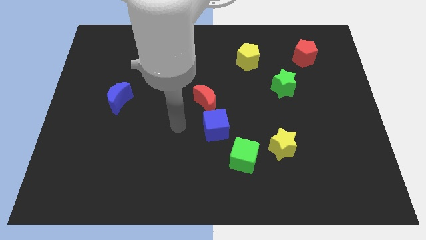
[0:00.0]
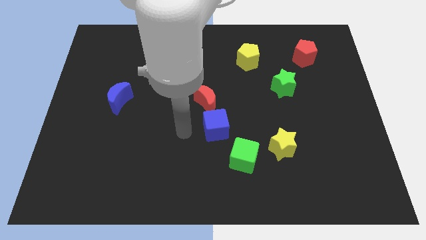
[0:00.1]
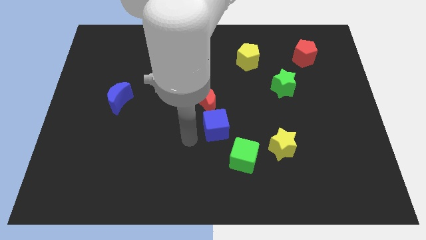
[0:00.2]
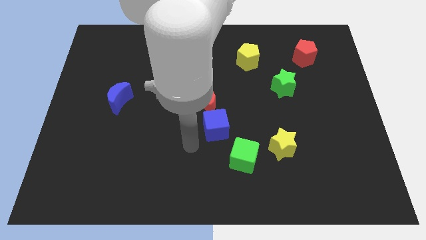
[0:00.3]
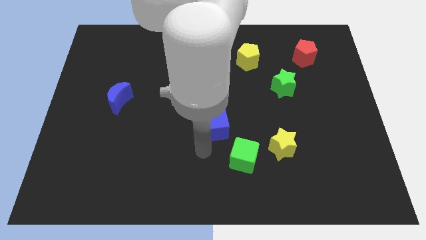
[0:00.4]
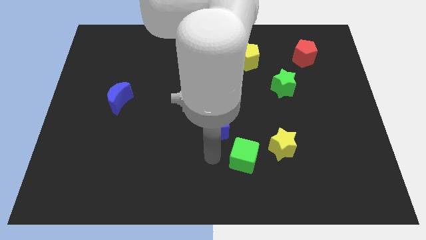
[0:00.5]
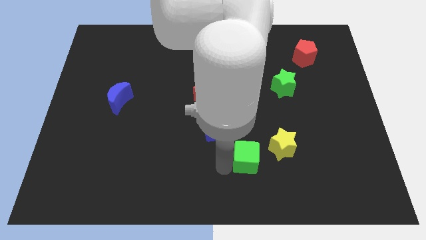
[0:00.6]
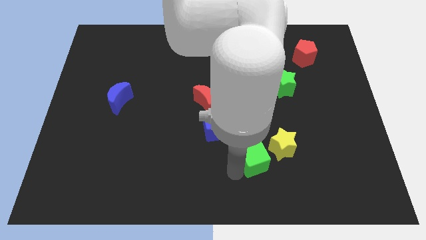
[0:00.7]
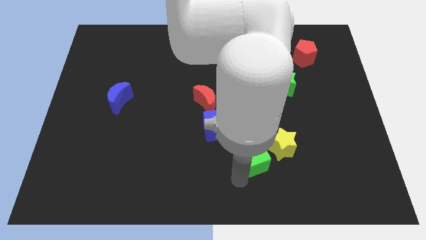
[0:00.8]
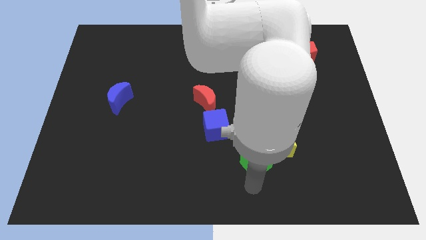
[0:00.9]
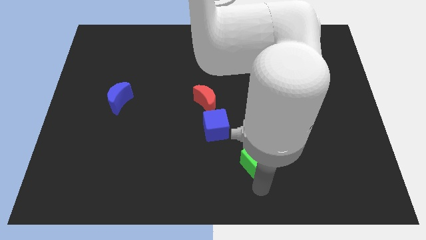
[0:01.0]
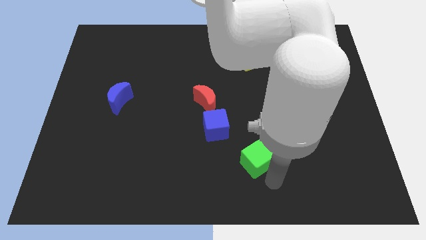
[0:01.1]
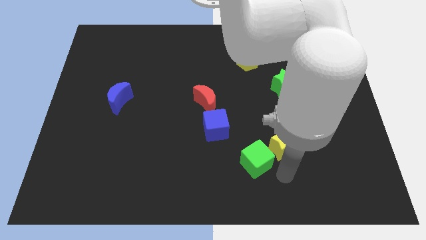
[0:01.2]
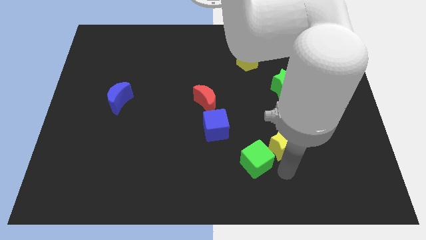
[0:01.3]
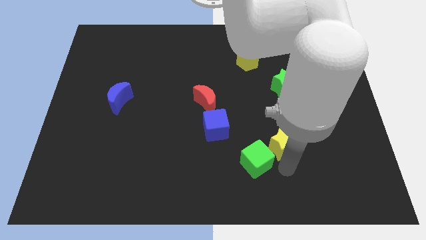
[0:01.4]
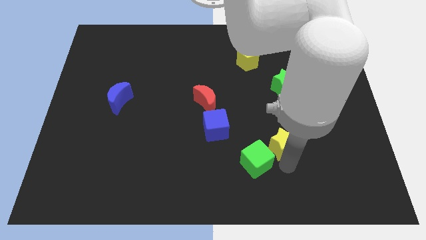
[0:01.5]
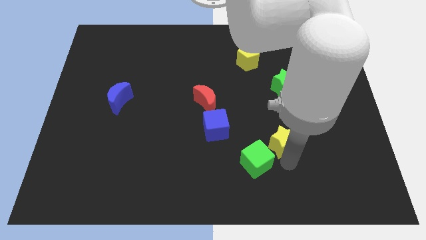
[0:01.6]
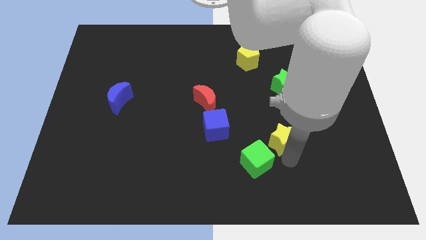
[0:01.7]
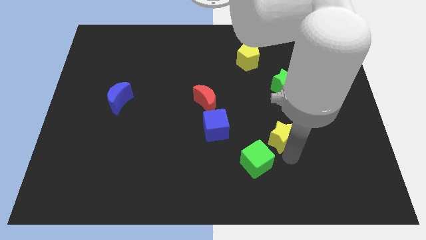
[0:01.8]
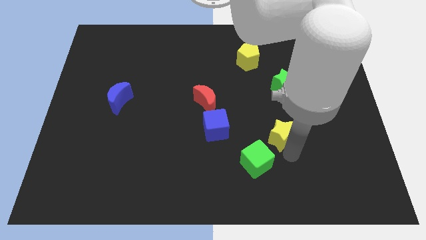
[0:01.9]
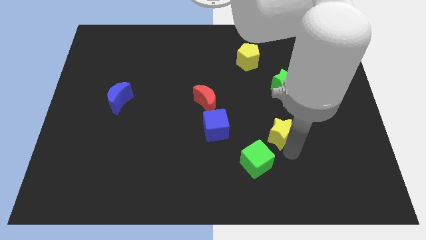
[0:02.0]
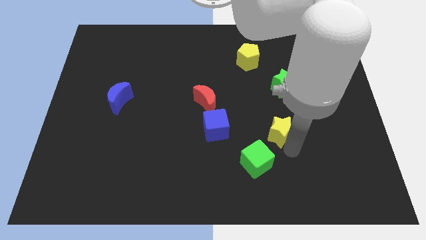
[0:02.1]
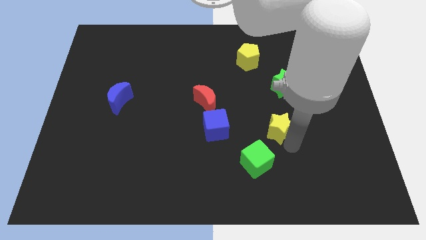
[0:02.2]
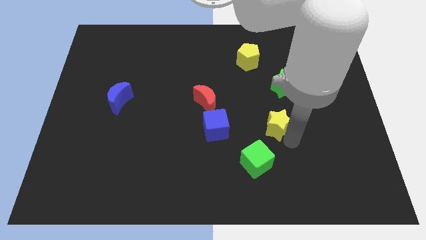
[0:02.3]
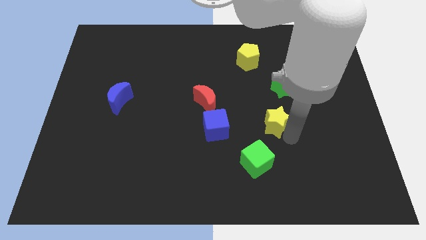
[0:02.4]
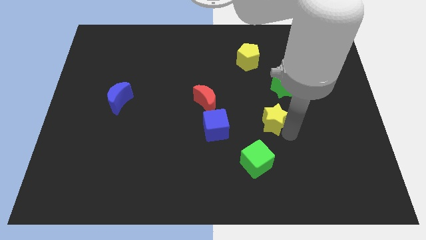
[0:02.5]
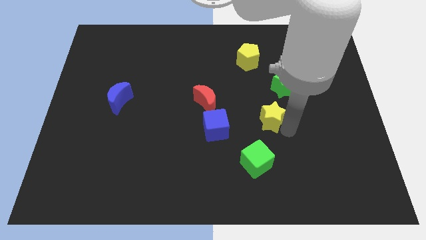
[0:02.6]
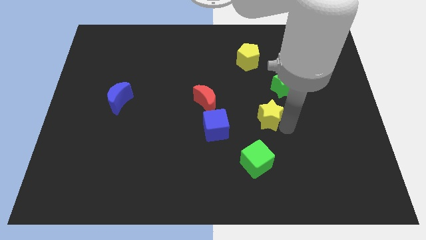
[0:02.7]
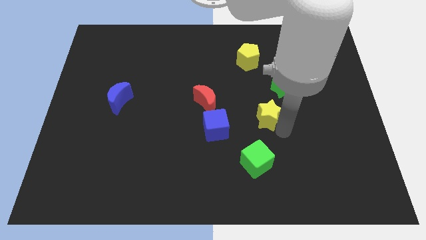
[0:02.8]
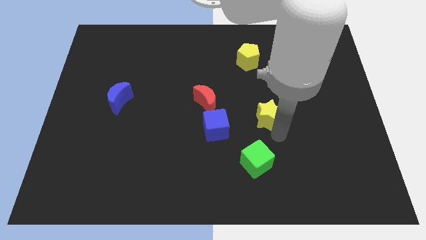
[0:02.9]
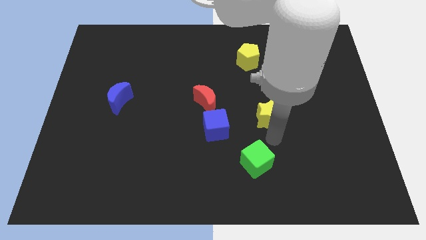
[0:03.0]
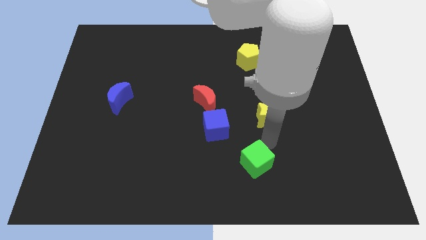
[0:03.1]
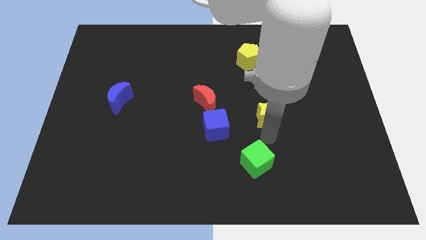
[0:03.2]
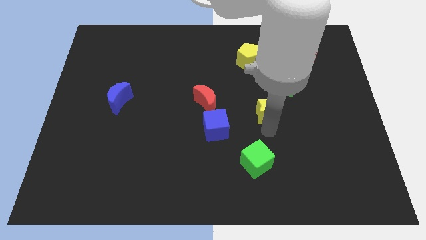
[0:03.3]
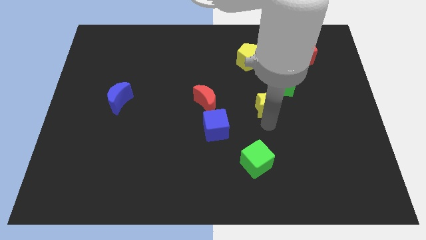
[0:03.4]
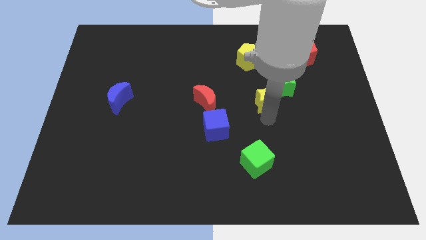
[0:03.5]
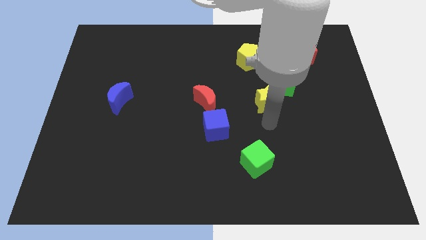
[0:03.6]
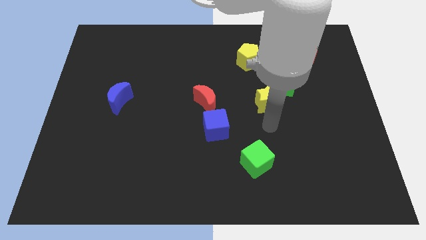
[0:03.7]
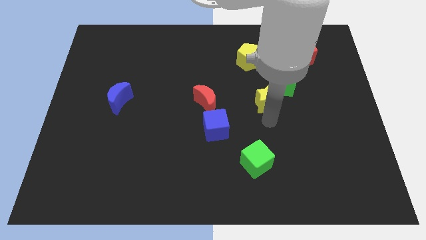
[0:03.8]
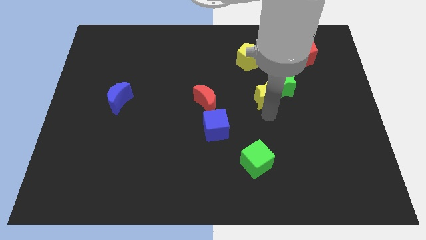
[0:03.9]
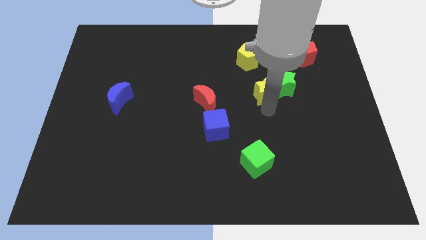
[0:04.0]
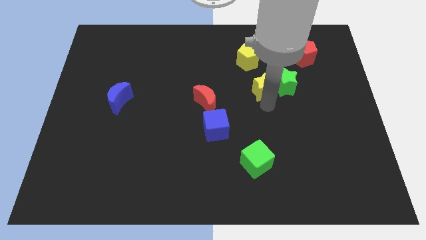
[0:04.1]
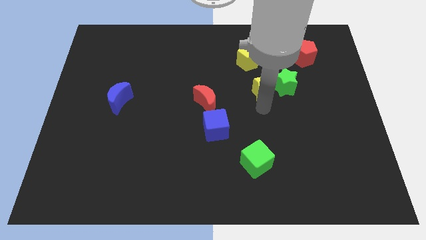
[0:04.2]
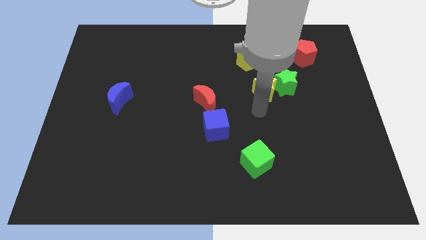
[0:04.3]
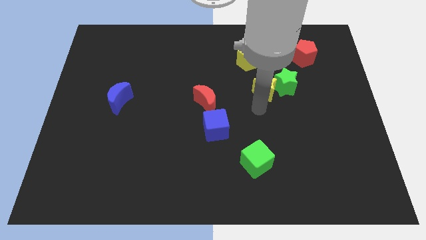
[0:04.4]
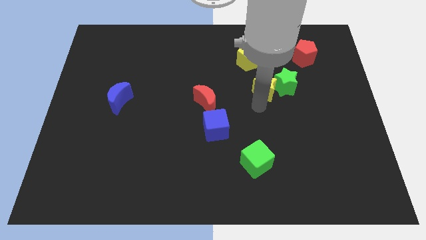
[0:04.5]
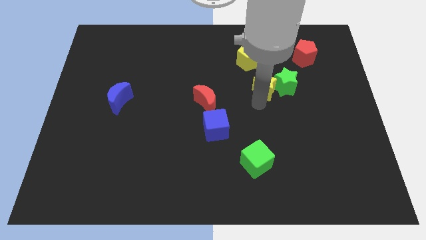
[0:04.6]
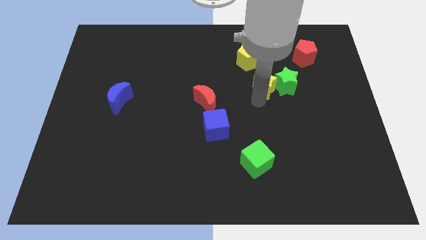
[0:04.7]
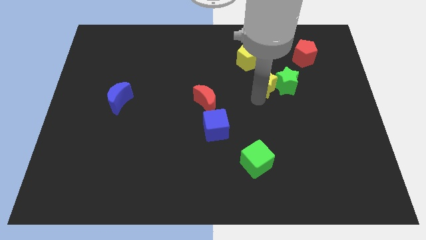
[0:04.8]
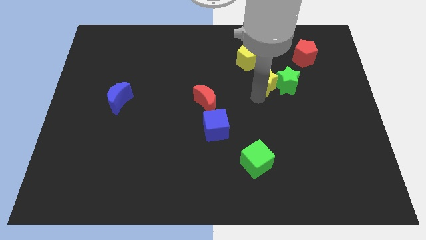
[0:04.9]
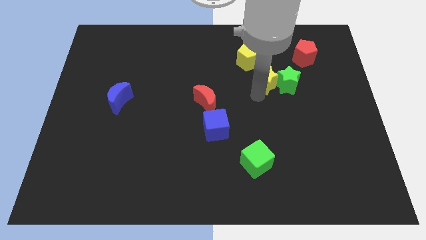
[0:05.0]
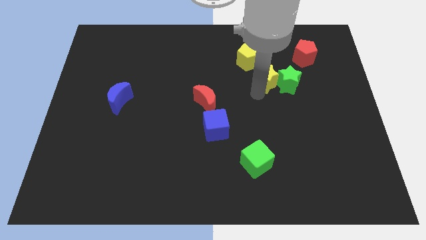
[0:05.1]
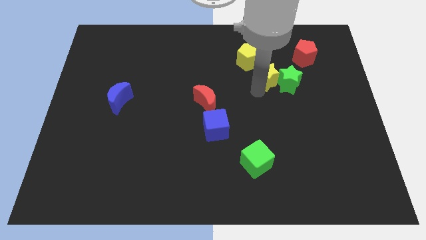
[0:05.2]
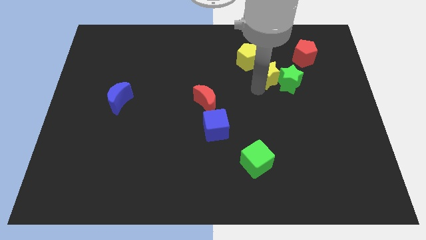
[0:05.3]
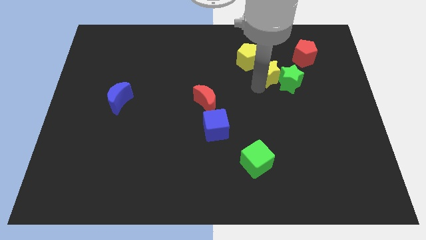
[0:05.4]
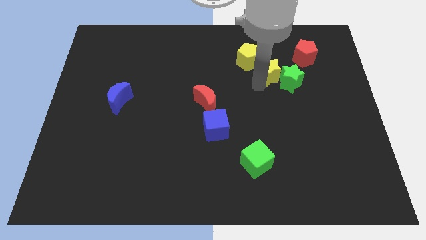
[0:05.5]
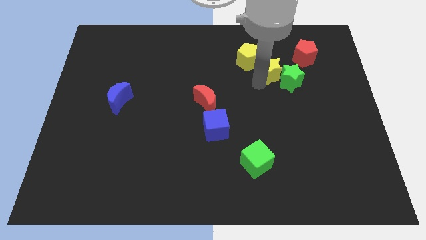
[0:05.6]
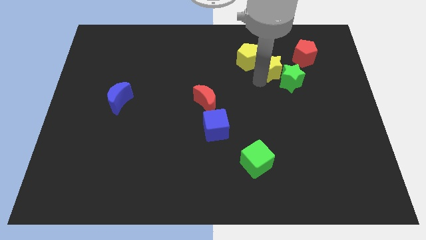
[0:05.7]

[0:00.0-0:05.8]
move the yellow star to the top side of the green star

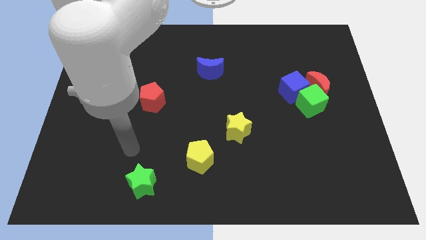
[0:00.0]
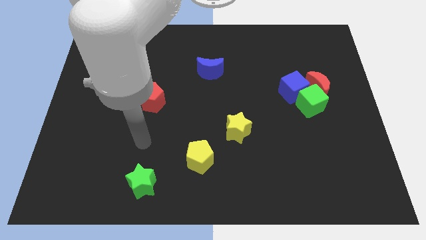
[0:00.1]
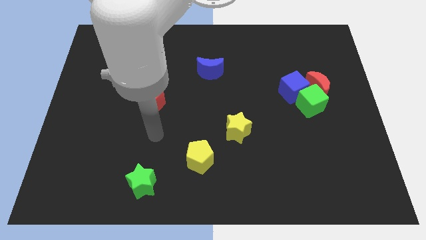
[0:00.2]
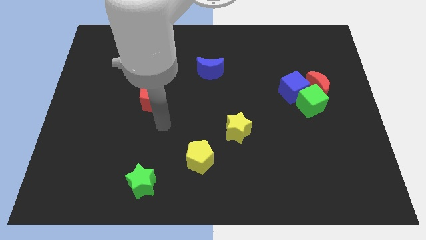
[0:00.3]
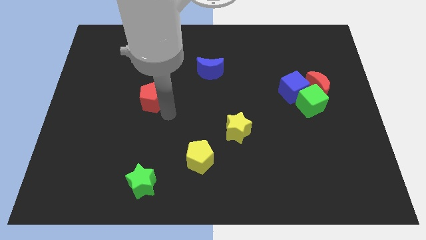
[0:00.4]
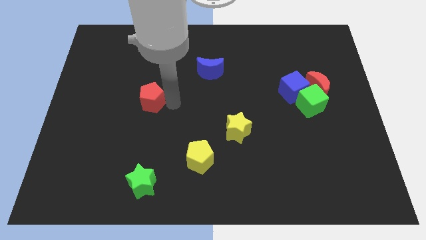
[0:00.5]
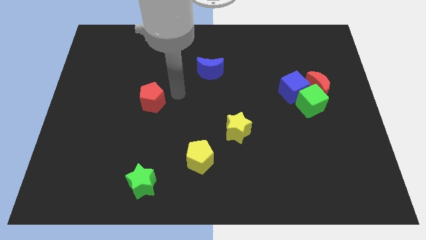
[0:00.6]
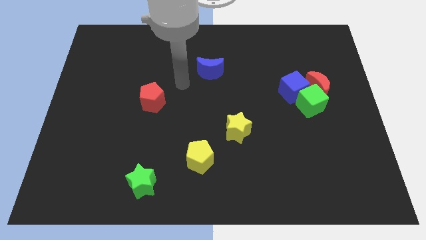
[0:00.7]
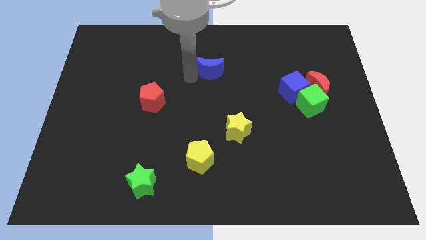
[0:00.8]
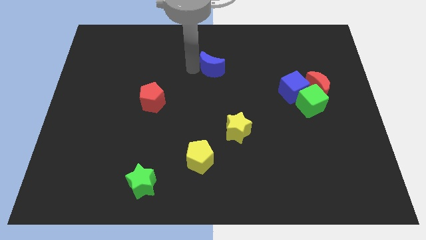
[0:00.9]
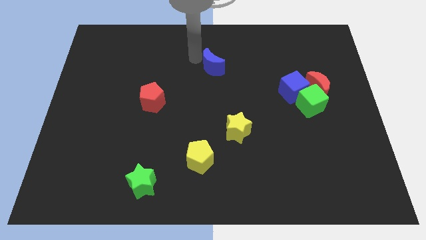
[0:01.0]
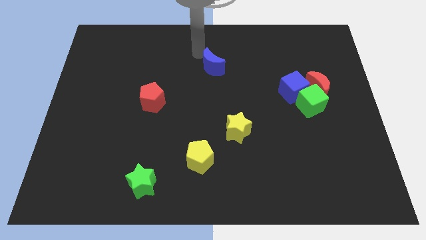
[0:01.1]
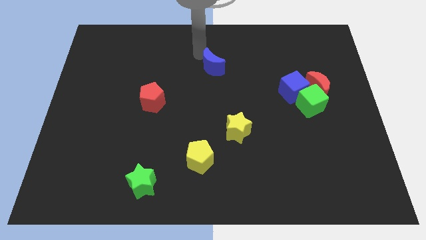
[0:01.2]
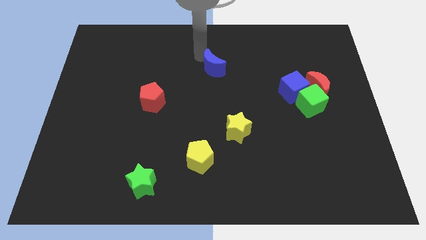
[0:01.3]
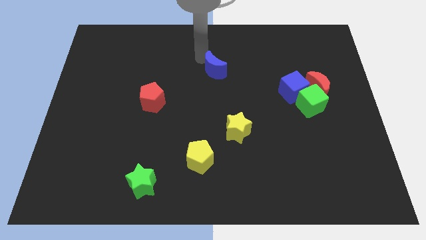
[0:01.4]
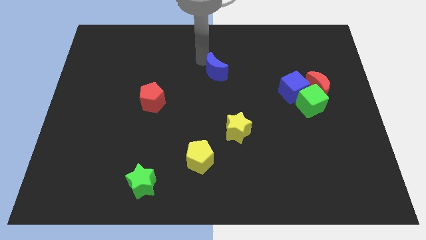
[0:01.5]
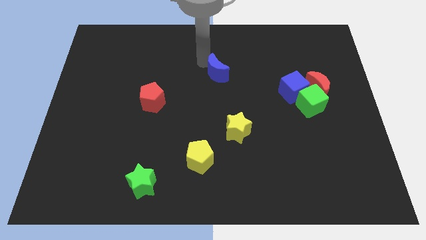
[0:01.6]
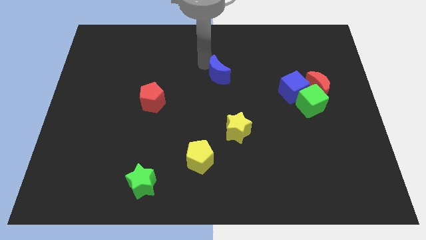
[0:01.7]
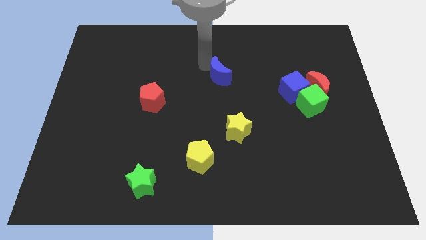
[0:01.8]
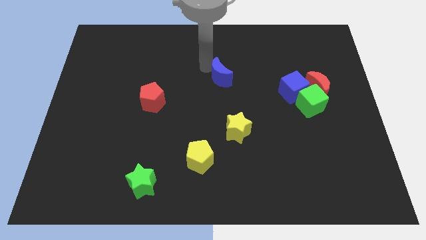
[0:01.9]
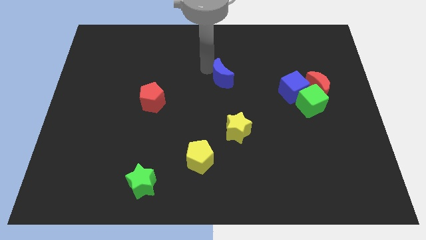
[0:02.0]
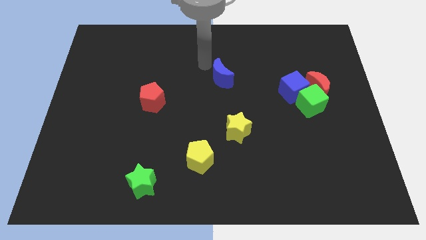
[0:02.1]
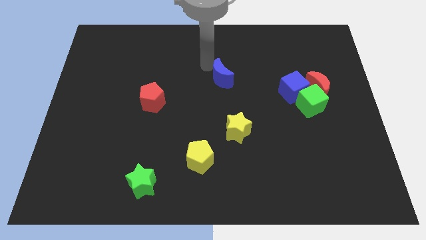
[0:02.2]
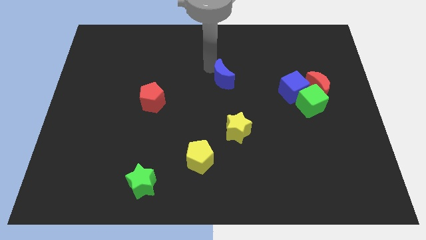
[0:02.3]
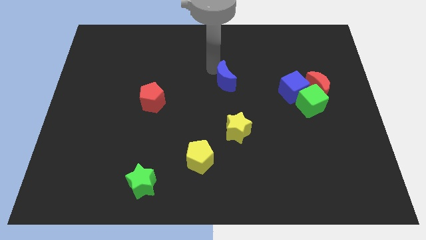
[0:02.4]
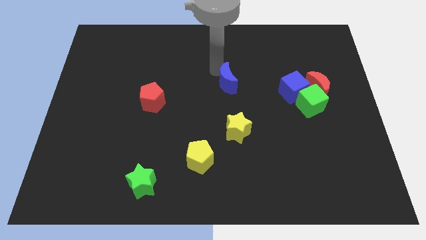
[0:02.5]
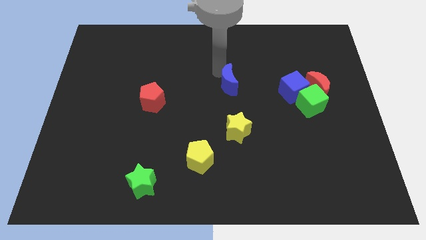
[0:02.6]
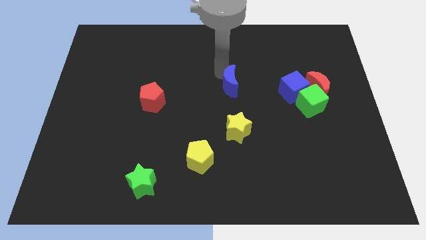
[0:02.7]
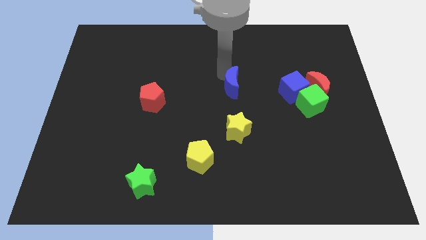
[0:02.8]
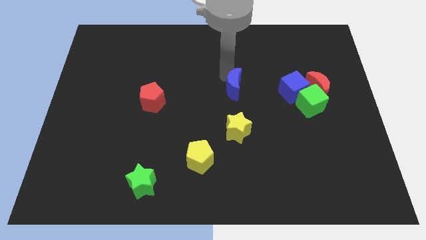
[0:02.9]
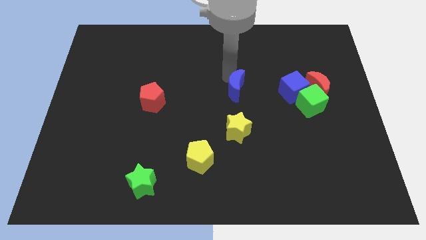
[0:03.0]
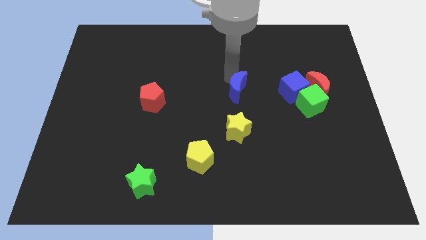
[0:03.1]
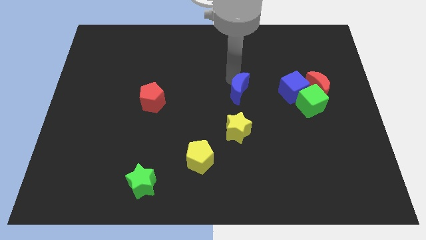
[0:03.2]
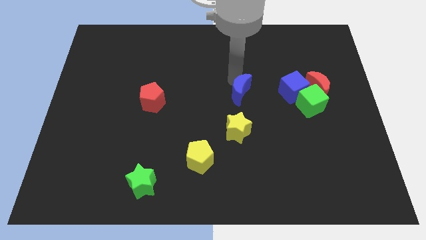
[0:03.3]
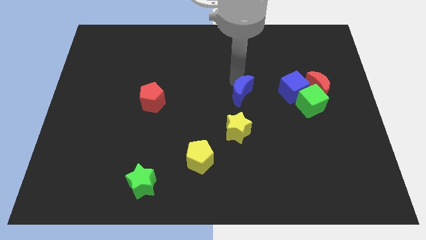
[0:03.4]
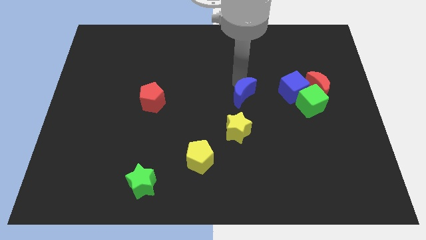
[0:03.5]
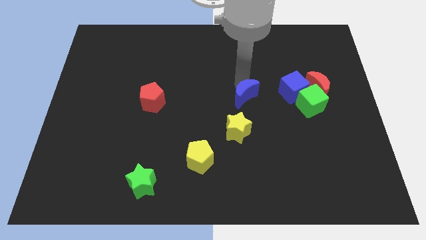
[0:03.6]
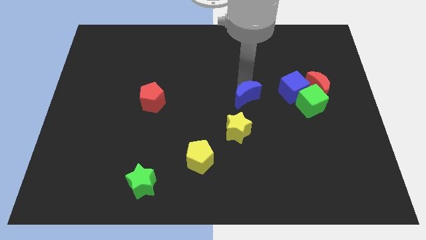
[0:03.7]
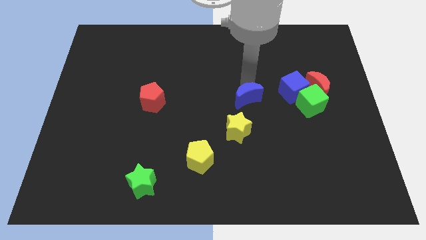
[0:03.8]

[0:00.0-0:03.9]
push the blue moon diagonally up and to the right of the yellow star
